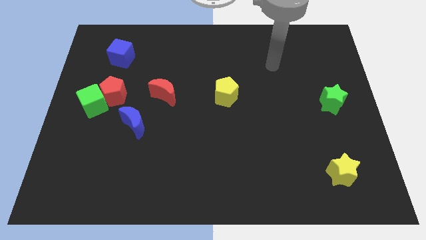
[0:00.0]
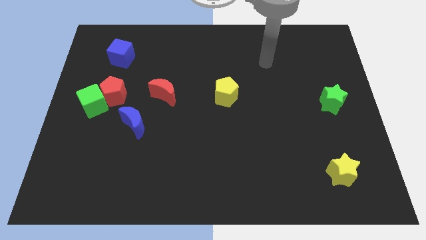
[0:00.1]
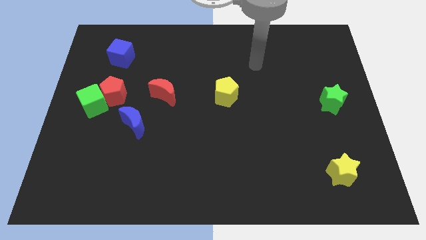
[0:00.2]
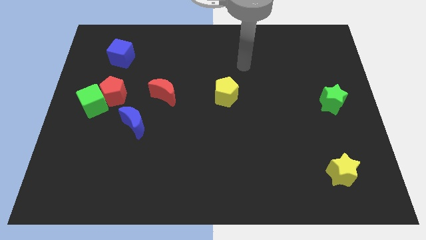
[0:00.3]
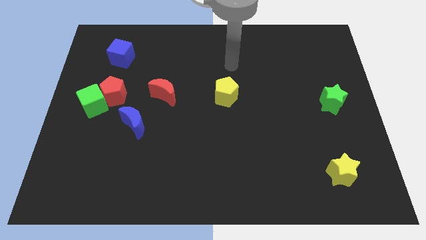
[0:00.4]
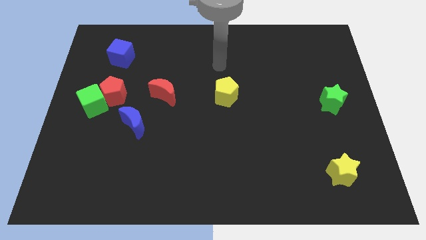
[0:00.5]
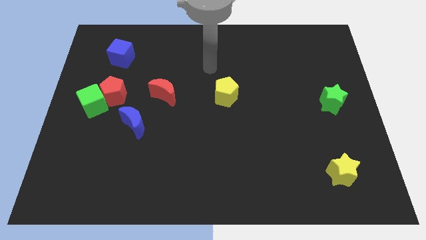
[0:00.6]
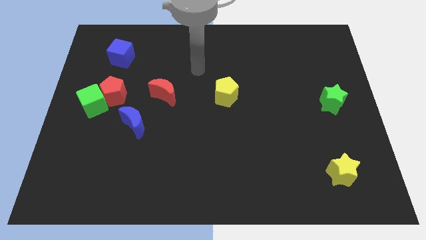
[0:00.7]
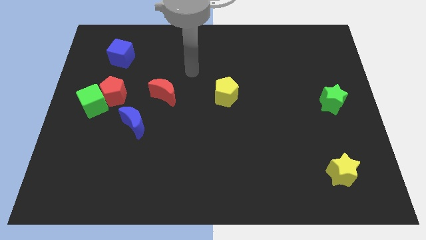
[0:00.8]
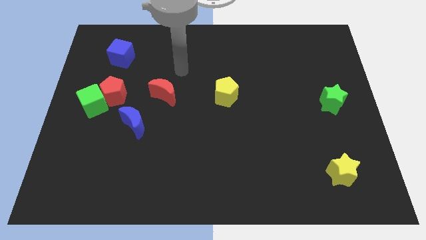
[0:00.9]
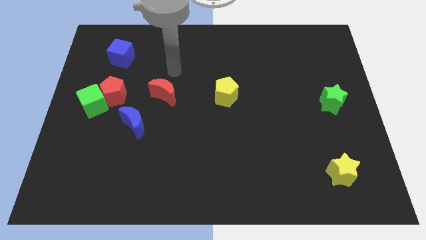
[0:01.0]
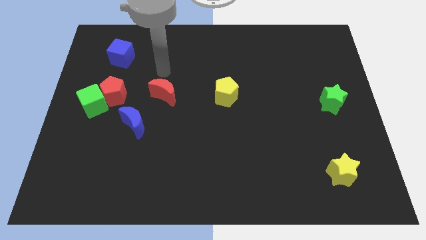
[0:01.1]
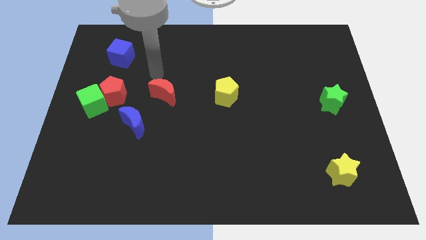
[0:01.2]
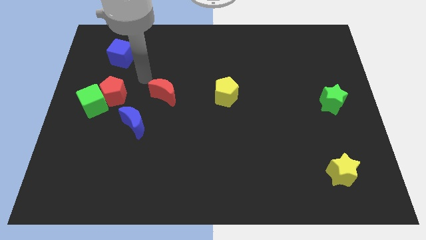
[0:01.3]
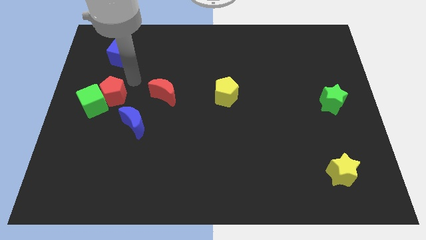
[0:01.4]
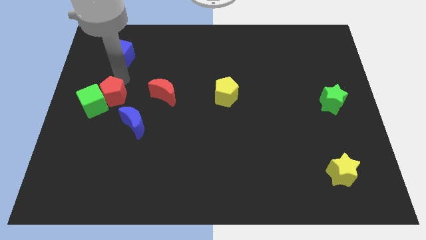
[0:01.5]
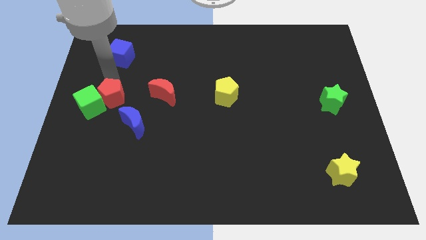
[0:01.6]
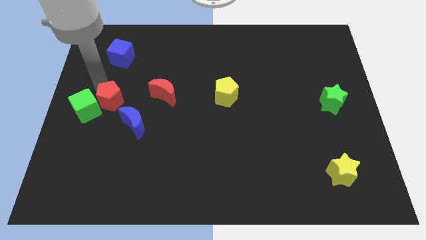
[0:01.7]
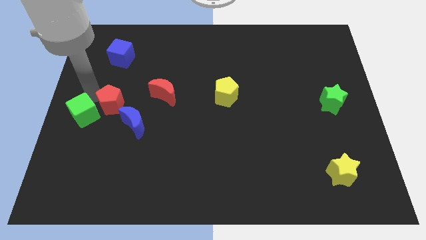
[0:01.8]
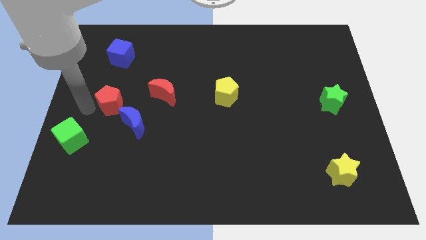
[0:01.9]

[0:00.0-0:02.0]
pull the red pentagon apart from the green cube

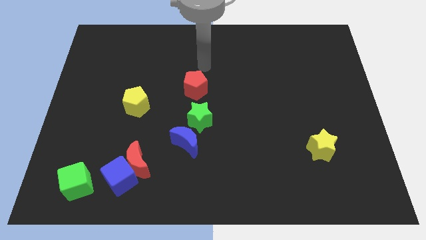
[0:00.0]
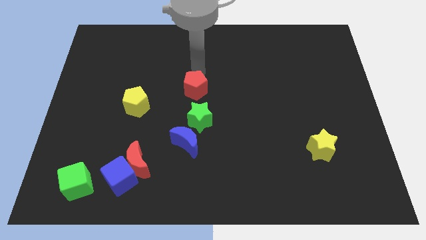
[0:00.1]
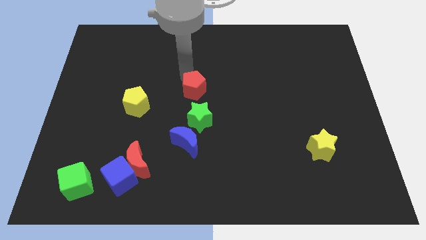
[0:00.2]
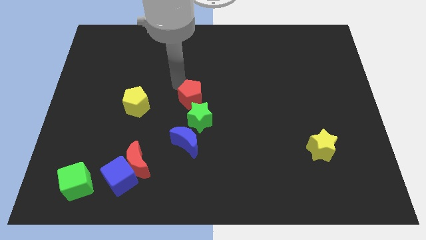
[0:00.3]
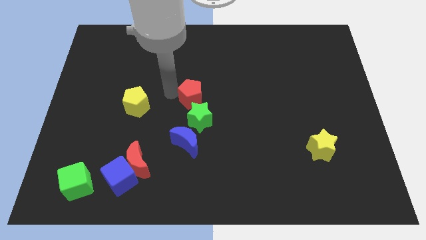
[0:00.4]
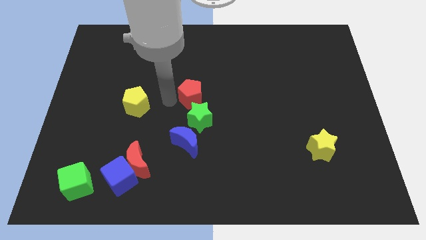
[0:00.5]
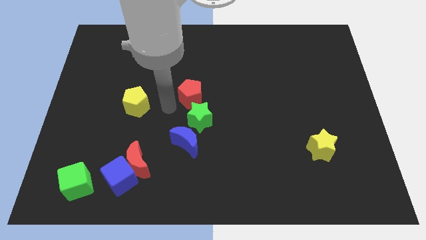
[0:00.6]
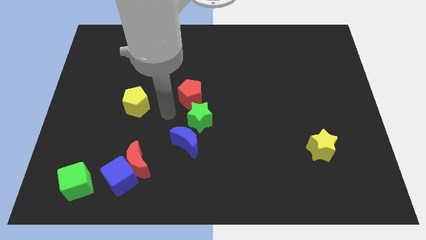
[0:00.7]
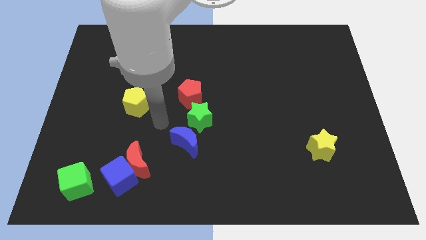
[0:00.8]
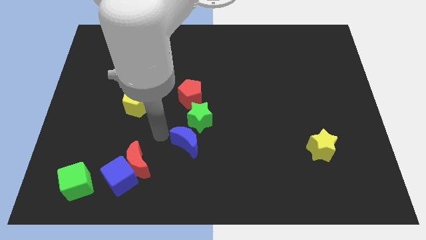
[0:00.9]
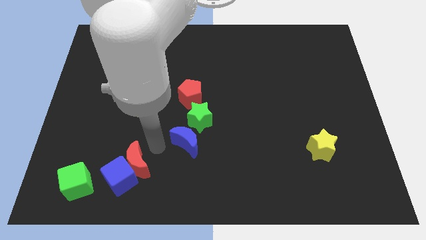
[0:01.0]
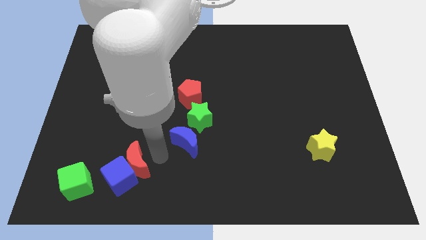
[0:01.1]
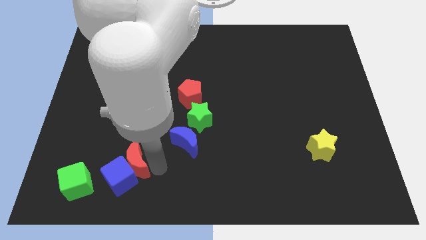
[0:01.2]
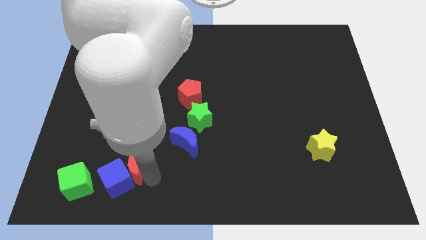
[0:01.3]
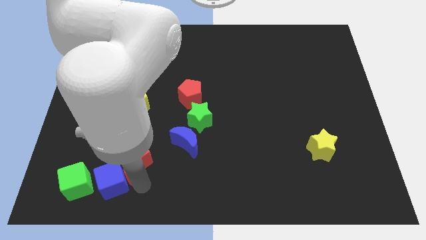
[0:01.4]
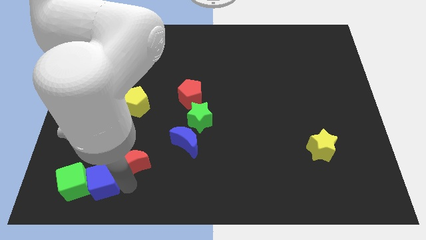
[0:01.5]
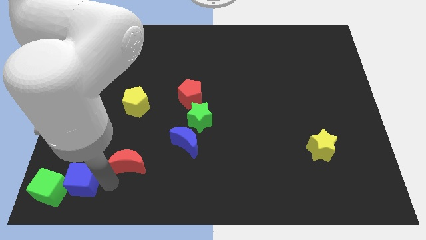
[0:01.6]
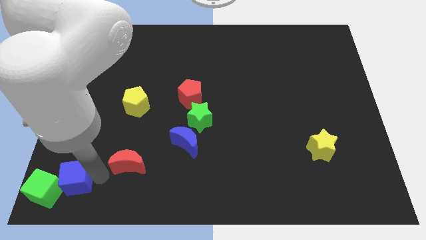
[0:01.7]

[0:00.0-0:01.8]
separate the red moon from the blue cube

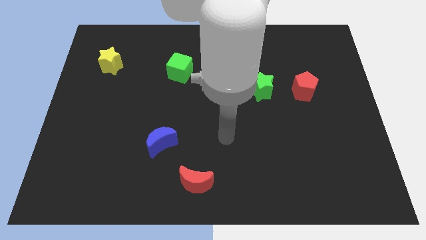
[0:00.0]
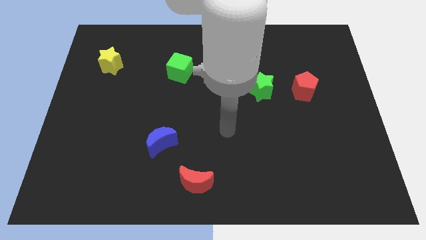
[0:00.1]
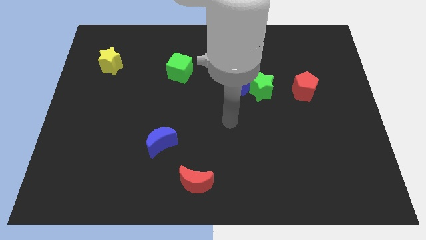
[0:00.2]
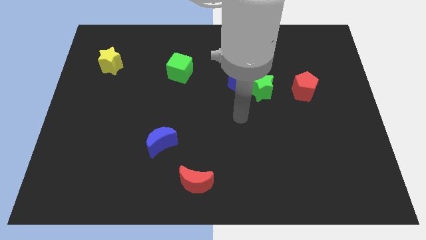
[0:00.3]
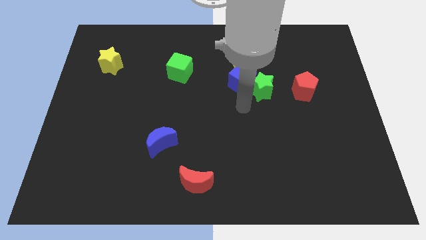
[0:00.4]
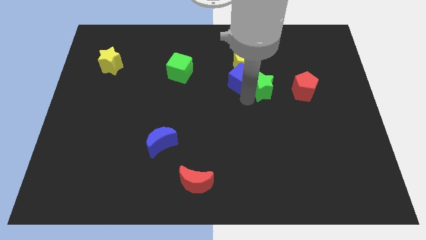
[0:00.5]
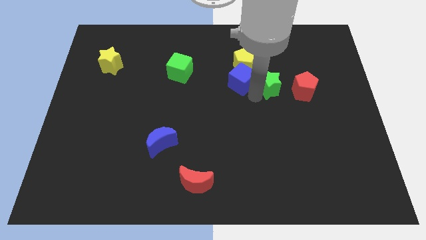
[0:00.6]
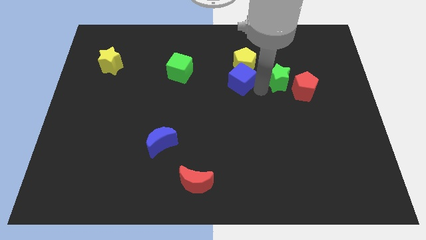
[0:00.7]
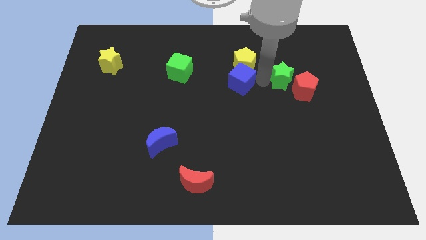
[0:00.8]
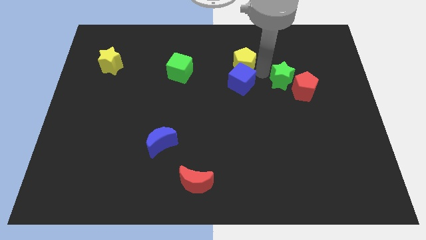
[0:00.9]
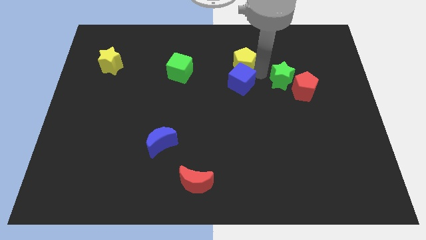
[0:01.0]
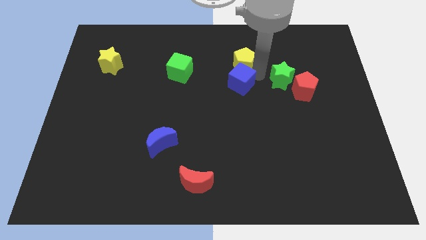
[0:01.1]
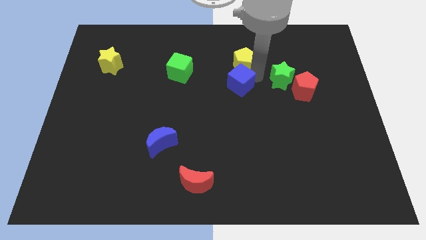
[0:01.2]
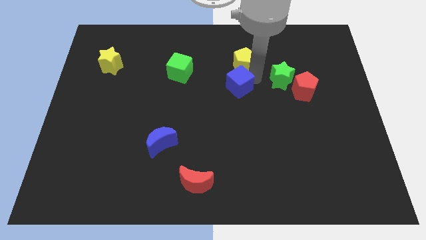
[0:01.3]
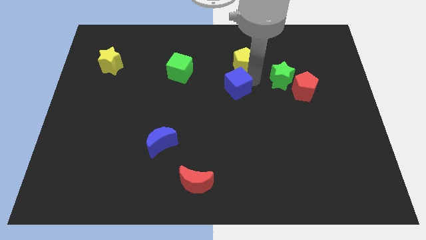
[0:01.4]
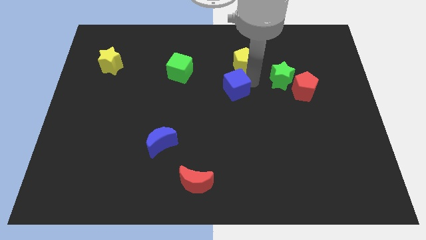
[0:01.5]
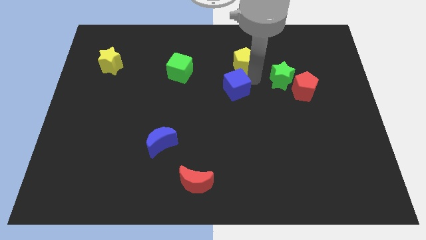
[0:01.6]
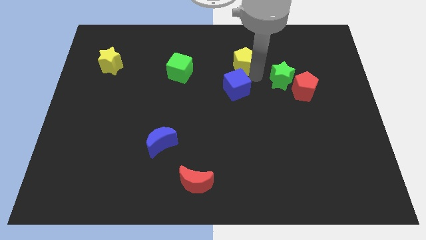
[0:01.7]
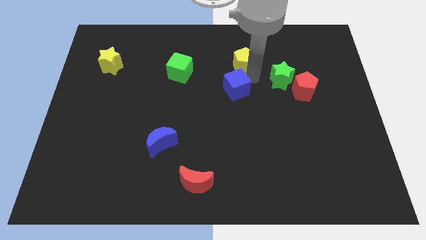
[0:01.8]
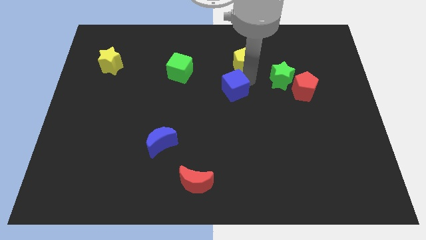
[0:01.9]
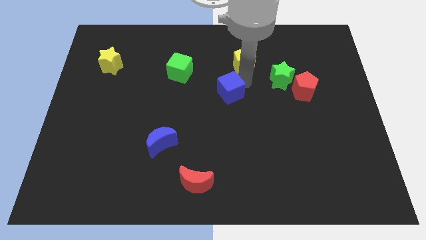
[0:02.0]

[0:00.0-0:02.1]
move the blue cube away from the green star and yellow pentagon

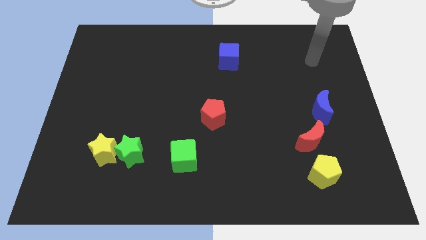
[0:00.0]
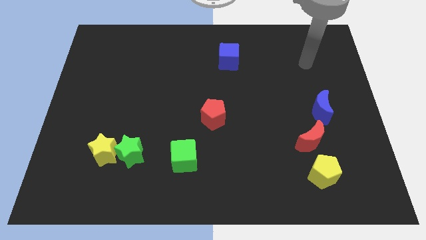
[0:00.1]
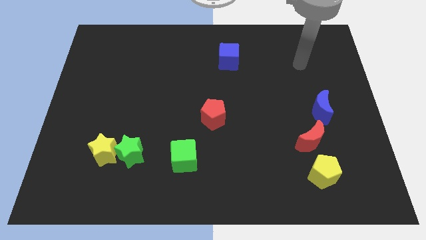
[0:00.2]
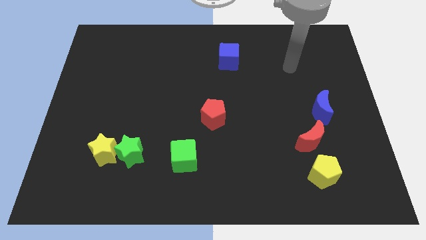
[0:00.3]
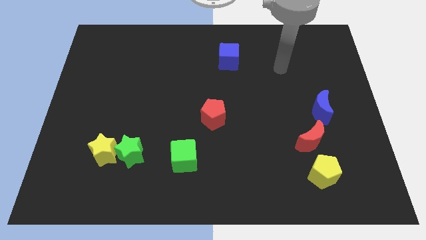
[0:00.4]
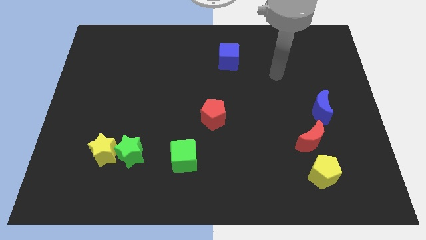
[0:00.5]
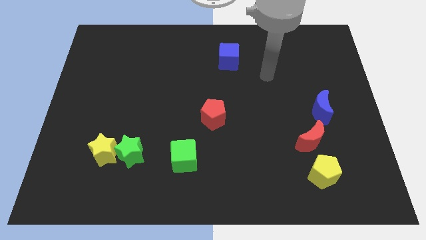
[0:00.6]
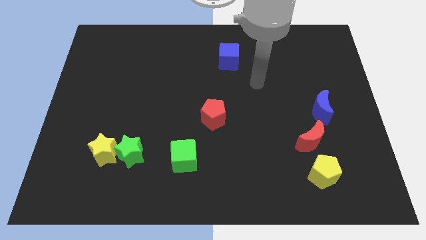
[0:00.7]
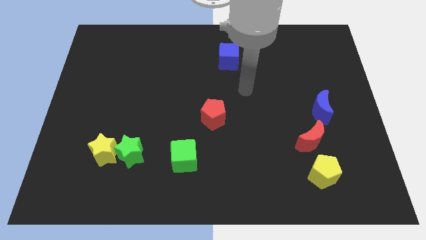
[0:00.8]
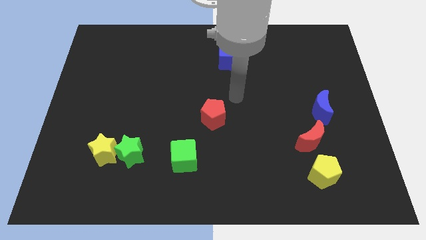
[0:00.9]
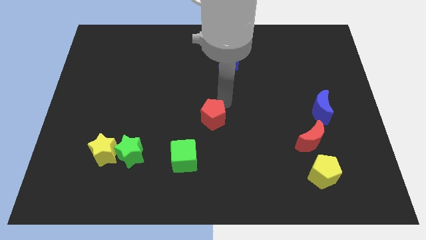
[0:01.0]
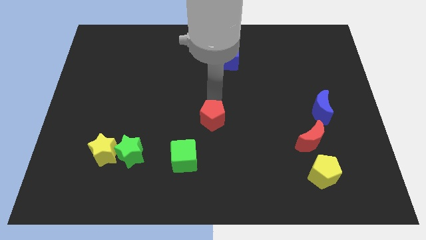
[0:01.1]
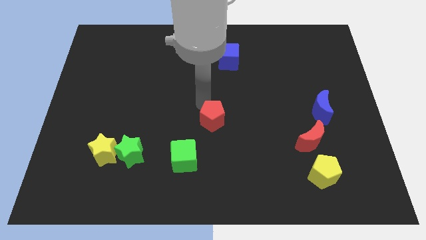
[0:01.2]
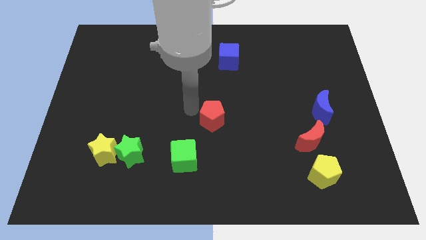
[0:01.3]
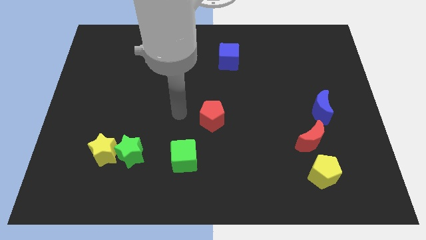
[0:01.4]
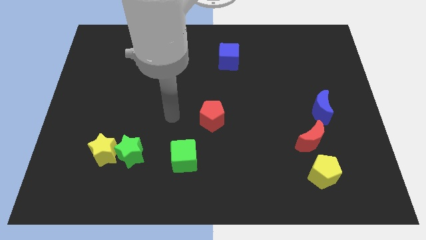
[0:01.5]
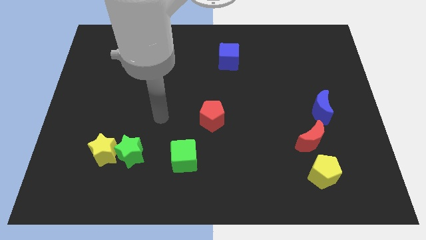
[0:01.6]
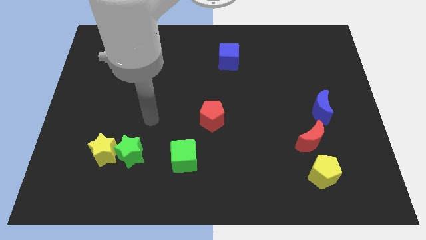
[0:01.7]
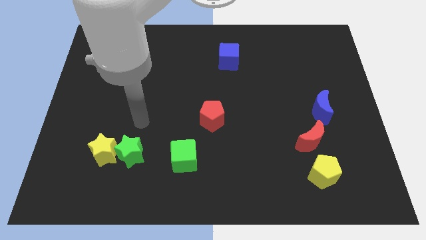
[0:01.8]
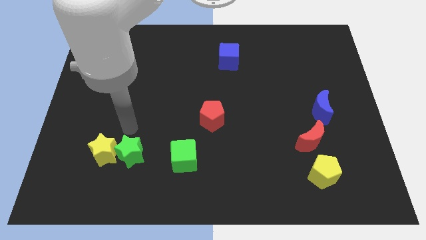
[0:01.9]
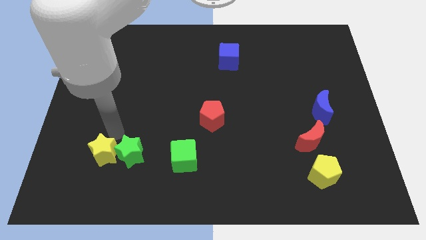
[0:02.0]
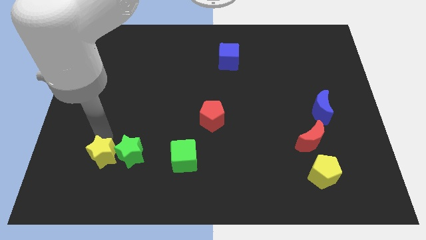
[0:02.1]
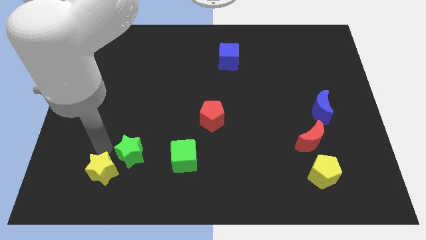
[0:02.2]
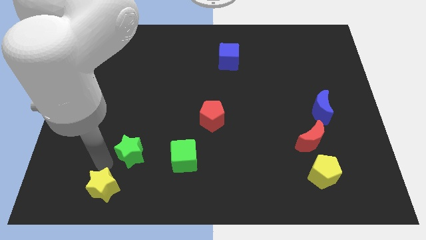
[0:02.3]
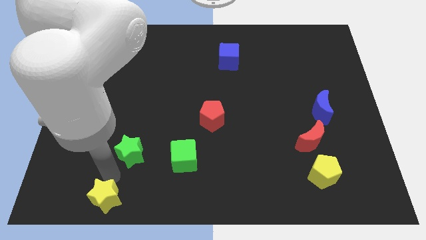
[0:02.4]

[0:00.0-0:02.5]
pull the green star apart from the yellow star

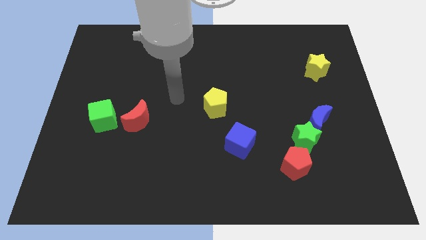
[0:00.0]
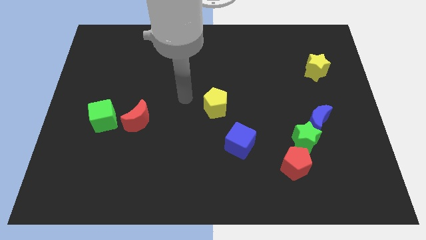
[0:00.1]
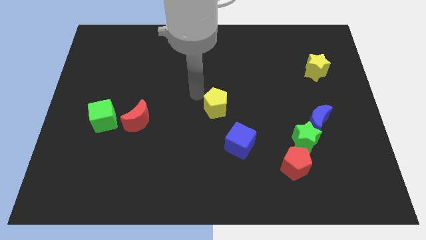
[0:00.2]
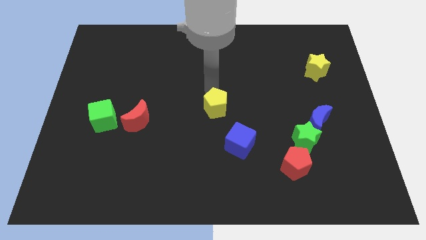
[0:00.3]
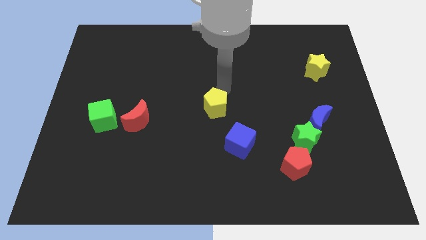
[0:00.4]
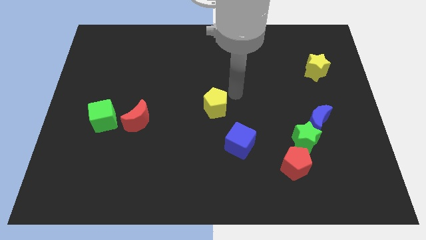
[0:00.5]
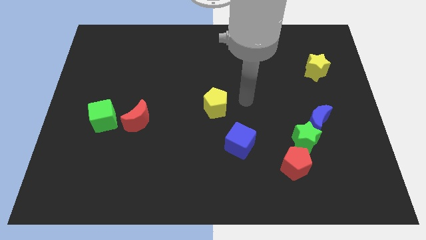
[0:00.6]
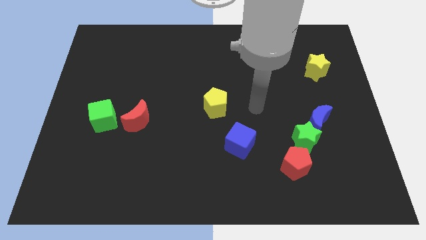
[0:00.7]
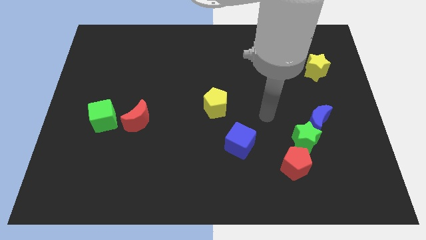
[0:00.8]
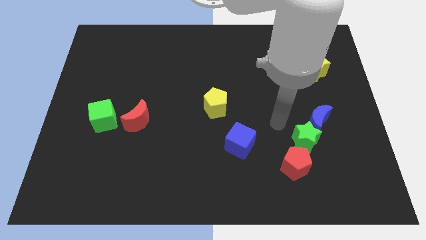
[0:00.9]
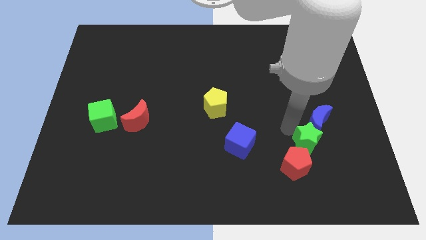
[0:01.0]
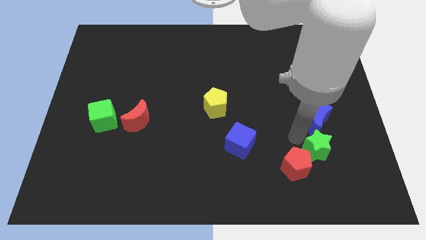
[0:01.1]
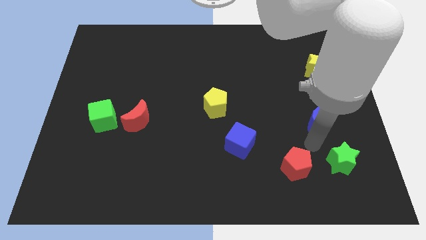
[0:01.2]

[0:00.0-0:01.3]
pull the blue moon apart from the green star
